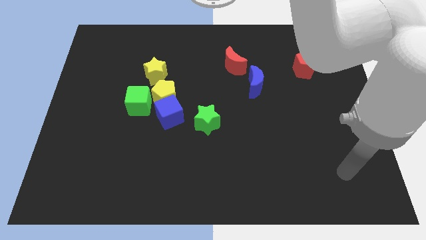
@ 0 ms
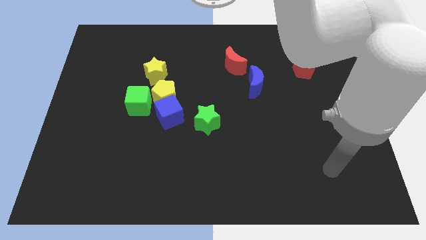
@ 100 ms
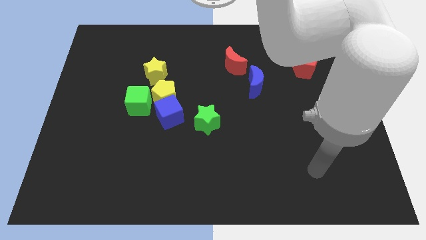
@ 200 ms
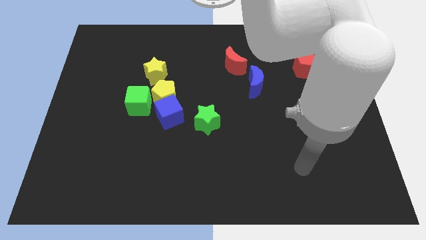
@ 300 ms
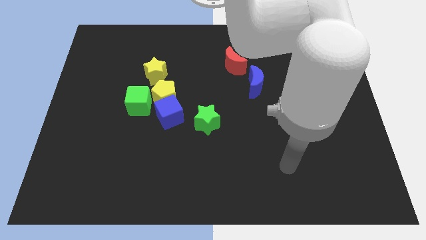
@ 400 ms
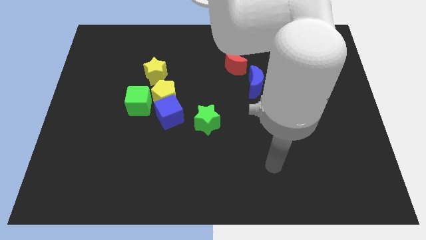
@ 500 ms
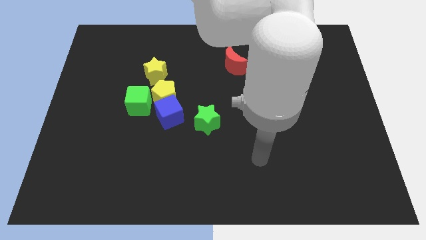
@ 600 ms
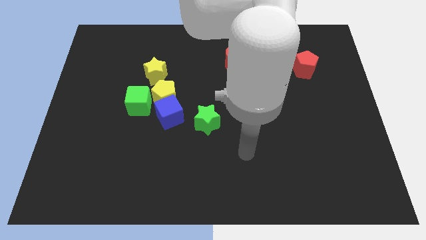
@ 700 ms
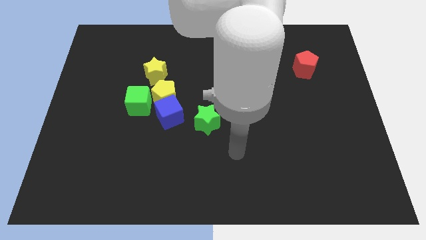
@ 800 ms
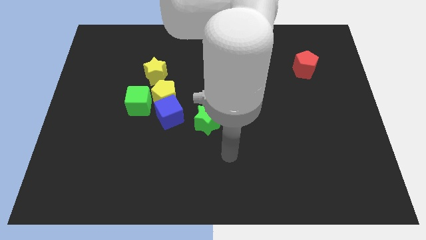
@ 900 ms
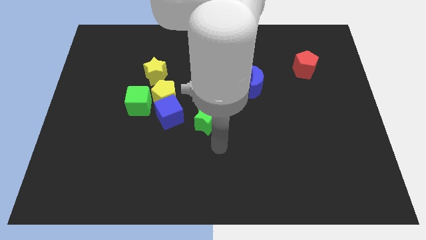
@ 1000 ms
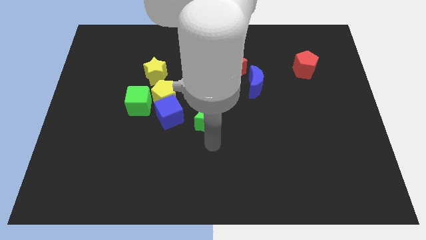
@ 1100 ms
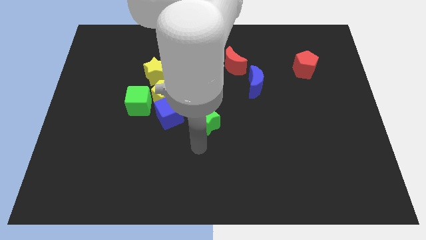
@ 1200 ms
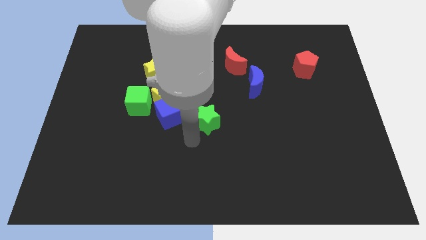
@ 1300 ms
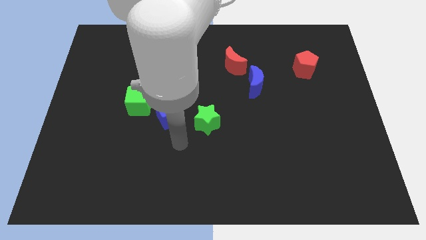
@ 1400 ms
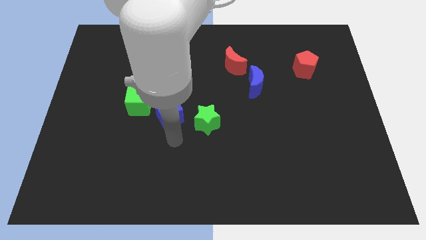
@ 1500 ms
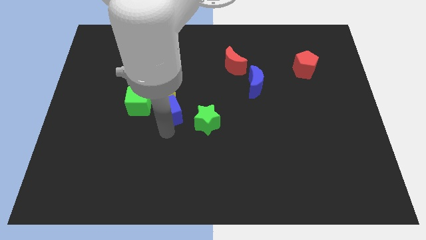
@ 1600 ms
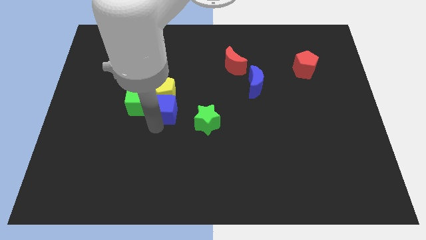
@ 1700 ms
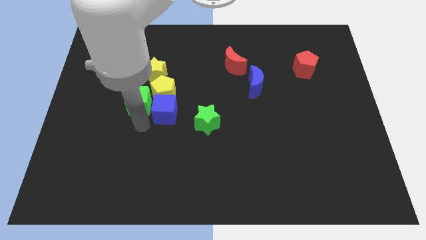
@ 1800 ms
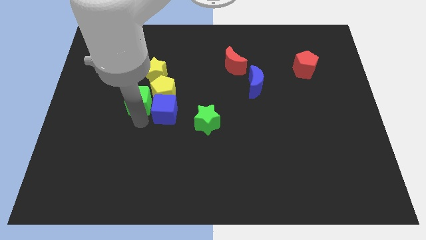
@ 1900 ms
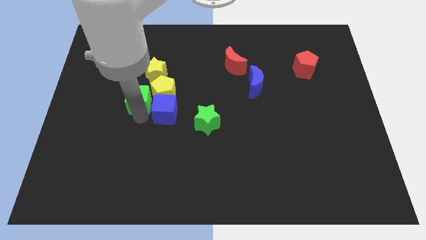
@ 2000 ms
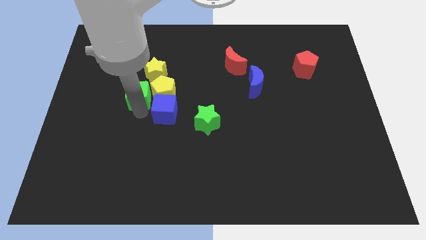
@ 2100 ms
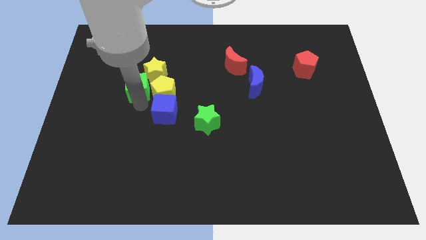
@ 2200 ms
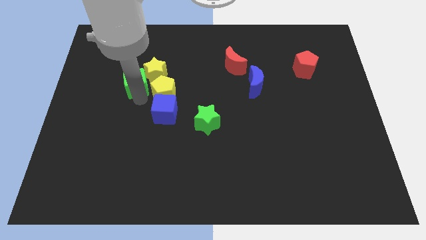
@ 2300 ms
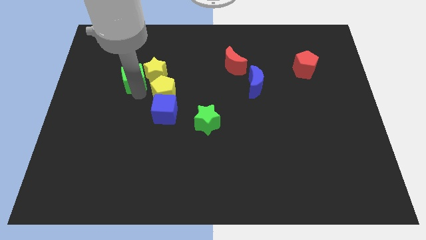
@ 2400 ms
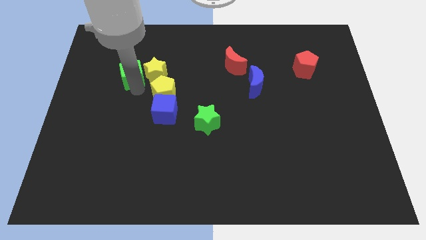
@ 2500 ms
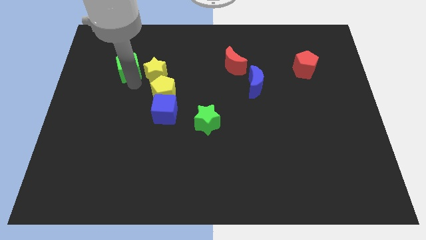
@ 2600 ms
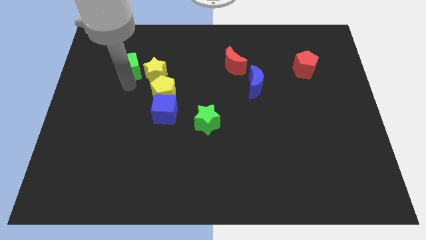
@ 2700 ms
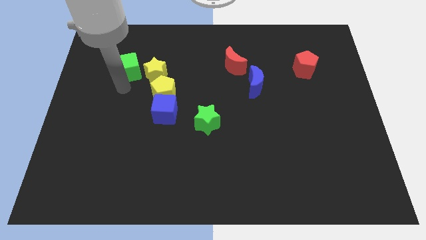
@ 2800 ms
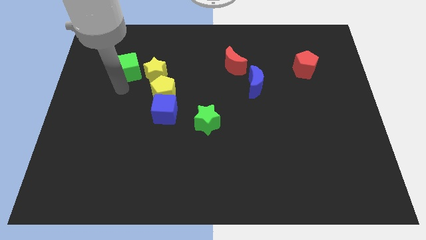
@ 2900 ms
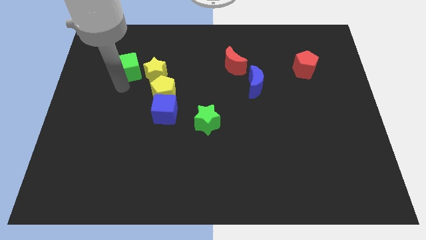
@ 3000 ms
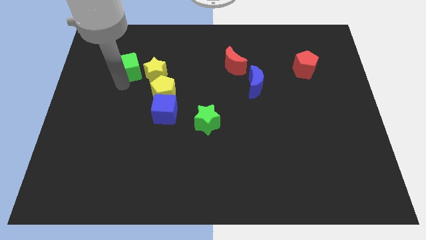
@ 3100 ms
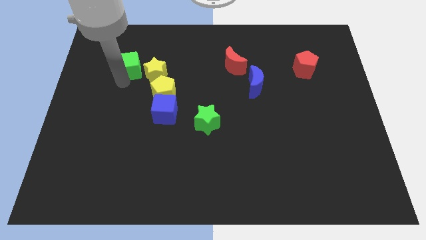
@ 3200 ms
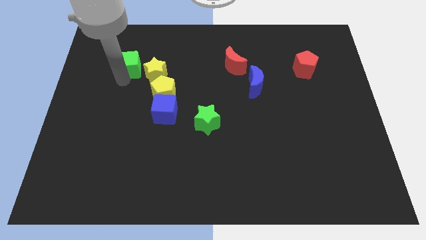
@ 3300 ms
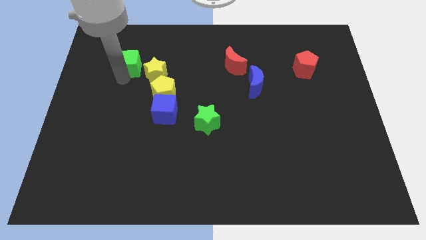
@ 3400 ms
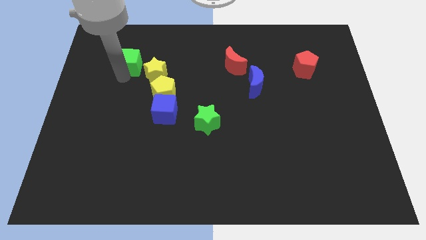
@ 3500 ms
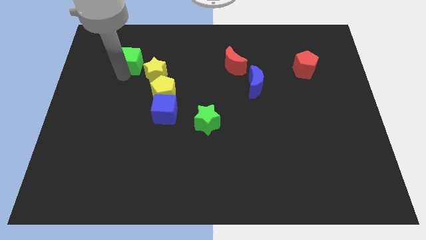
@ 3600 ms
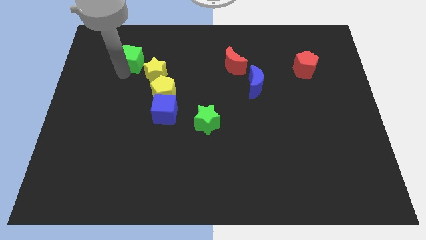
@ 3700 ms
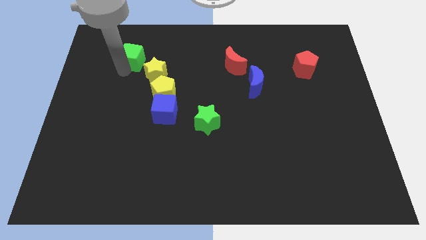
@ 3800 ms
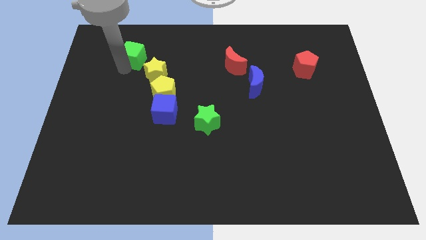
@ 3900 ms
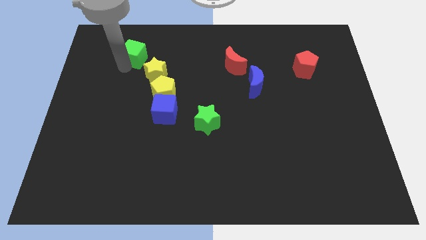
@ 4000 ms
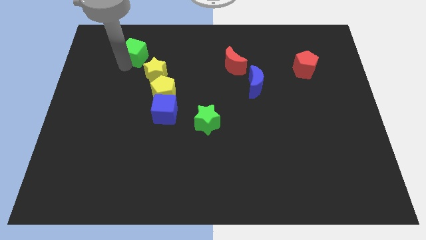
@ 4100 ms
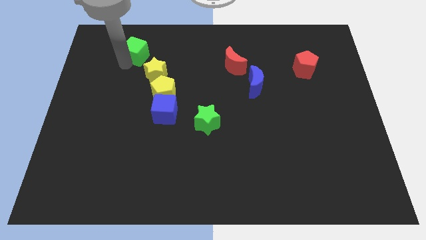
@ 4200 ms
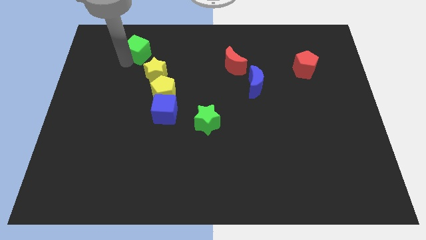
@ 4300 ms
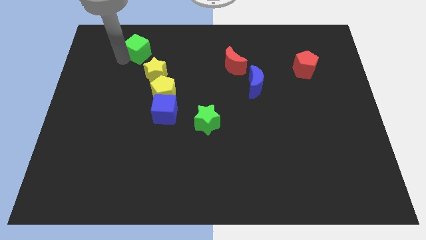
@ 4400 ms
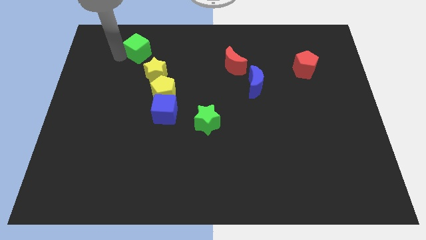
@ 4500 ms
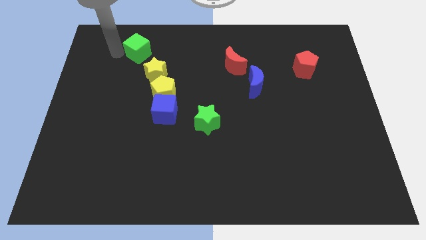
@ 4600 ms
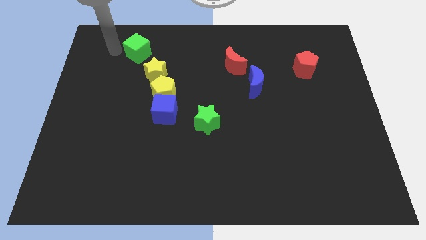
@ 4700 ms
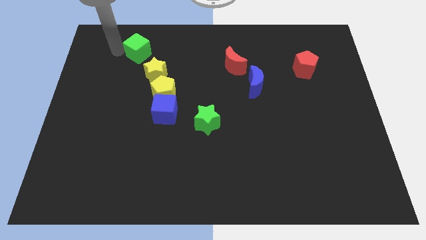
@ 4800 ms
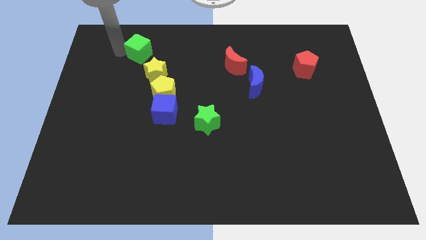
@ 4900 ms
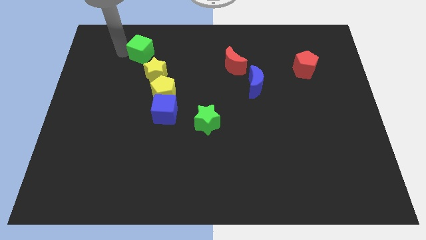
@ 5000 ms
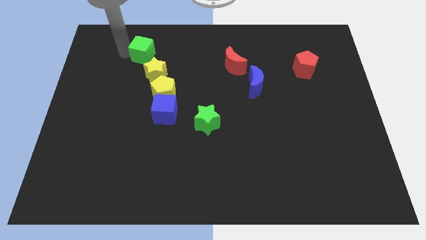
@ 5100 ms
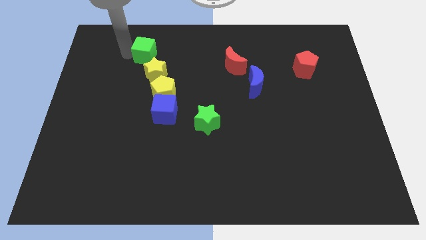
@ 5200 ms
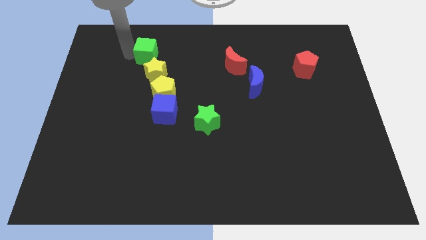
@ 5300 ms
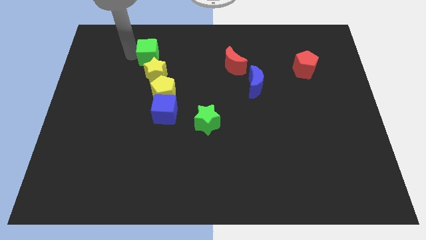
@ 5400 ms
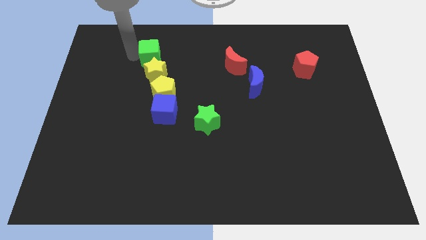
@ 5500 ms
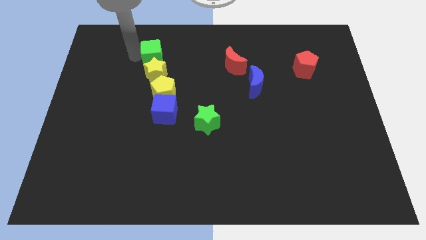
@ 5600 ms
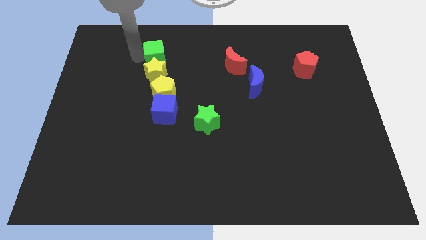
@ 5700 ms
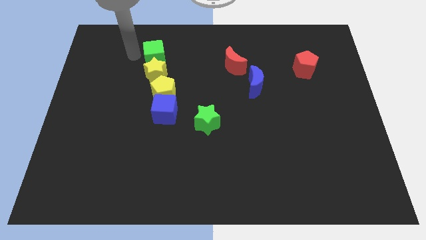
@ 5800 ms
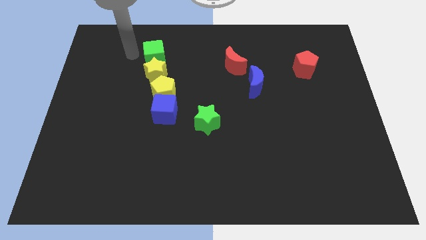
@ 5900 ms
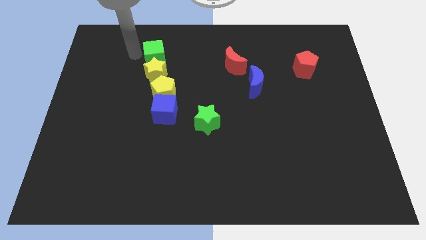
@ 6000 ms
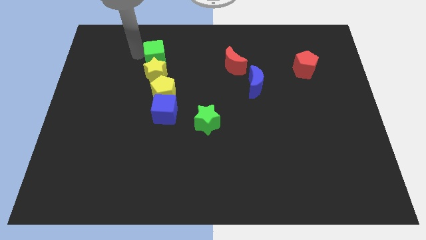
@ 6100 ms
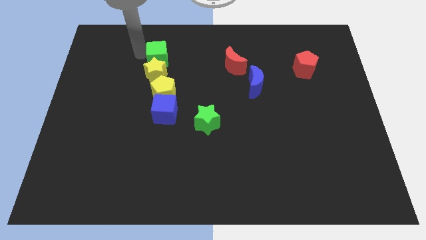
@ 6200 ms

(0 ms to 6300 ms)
push the green cube diagonally up and to the right of the yellow star
